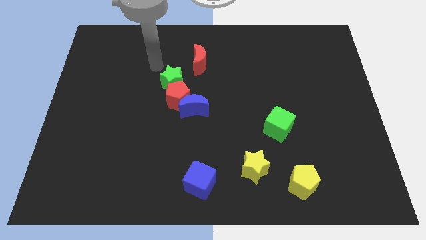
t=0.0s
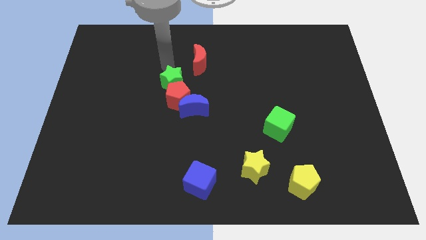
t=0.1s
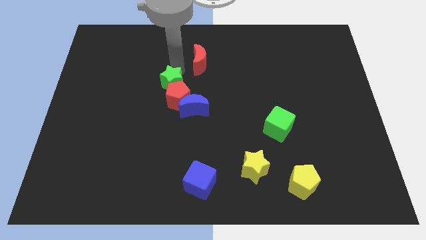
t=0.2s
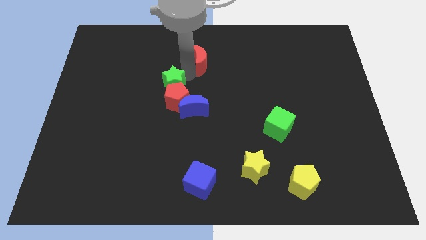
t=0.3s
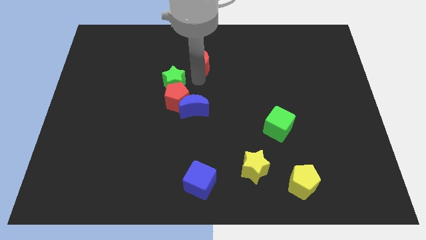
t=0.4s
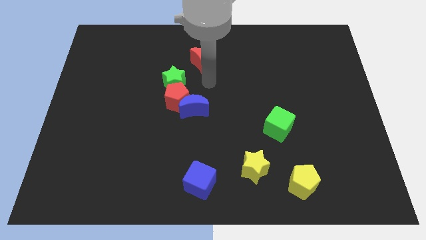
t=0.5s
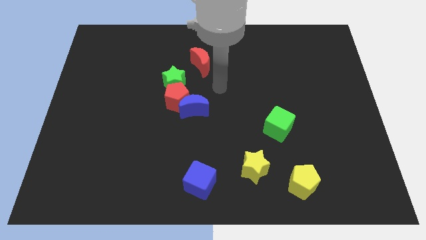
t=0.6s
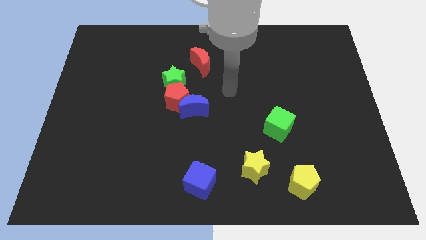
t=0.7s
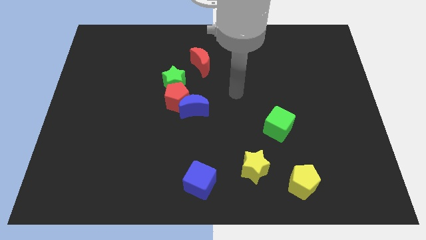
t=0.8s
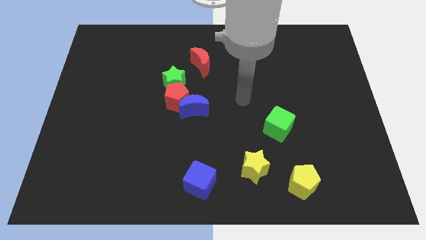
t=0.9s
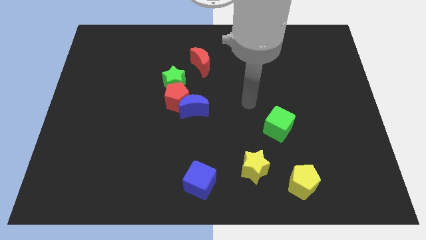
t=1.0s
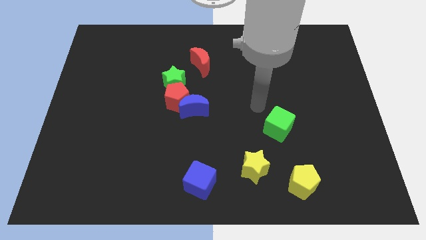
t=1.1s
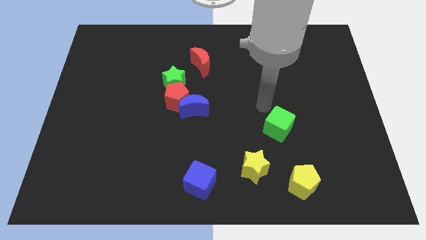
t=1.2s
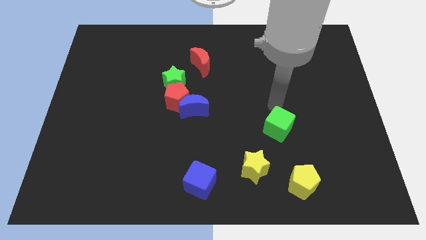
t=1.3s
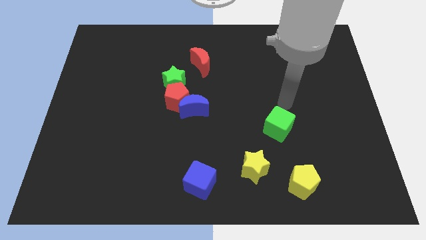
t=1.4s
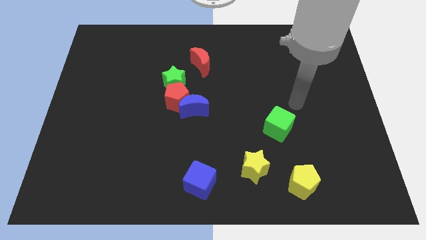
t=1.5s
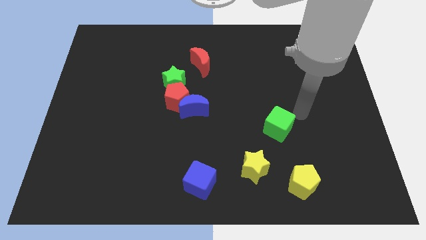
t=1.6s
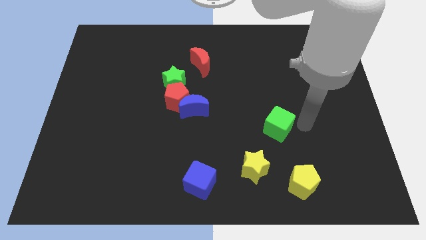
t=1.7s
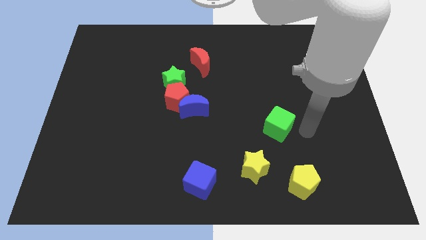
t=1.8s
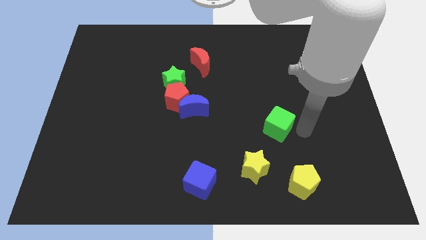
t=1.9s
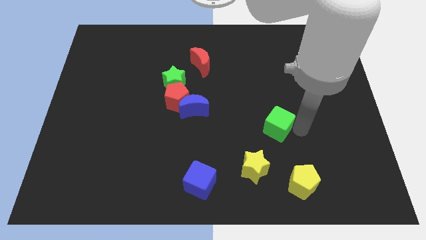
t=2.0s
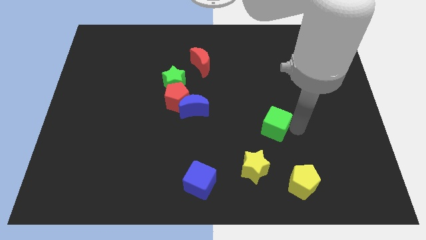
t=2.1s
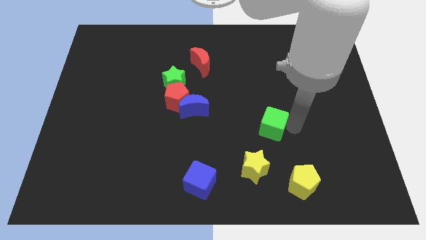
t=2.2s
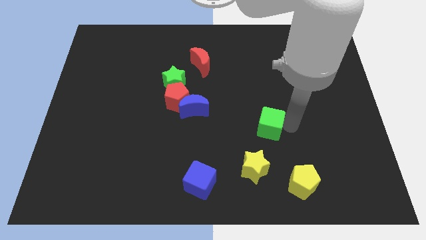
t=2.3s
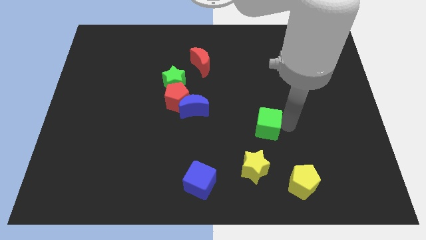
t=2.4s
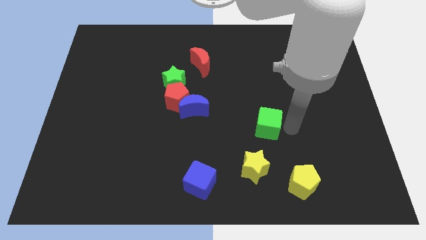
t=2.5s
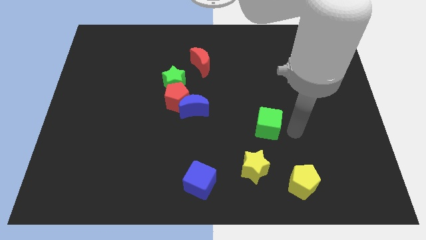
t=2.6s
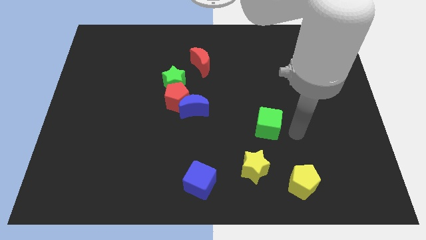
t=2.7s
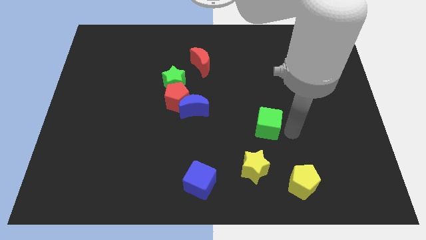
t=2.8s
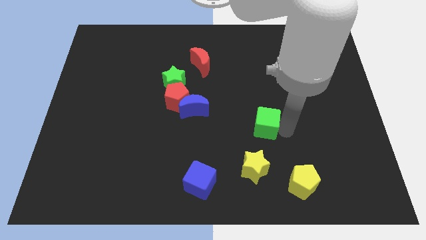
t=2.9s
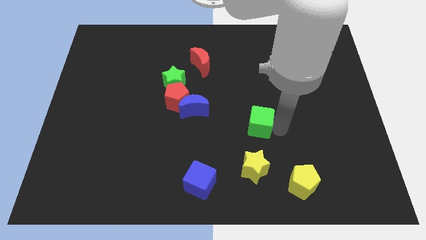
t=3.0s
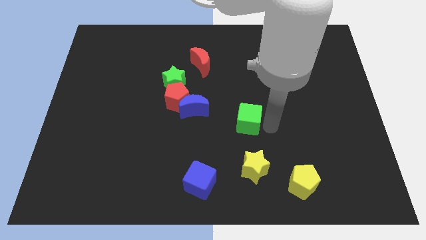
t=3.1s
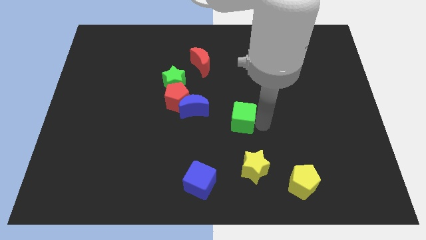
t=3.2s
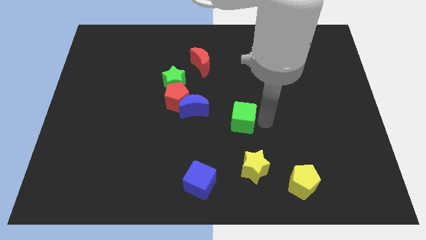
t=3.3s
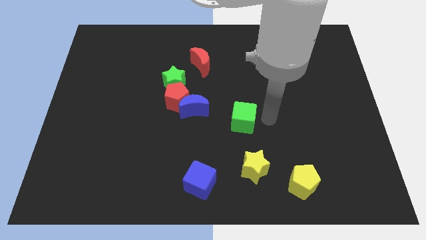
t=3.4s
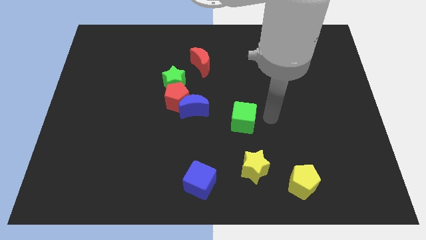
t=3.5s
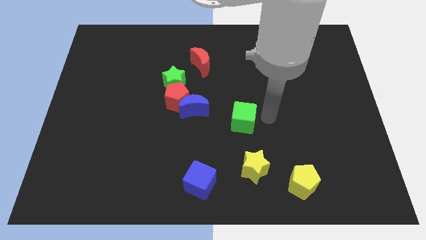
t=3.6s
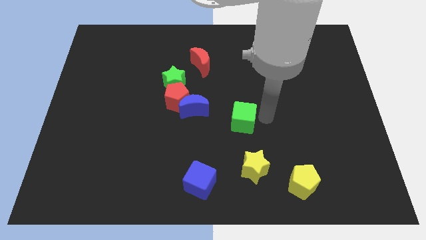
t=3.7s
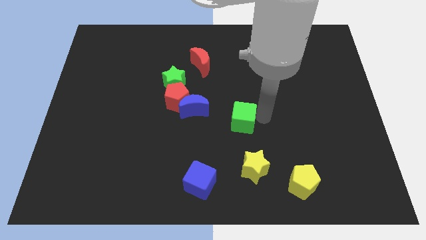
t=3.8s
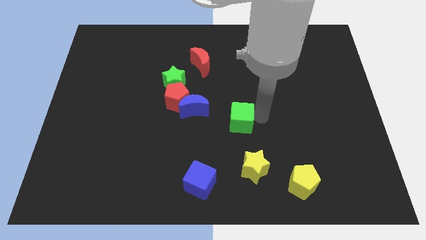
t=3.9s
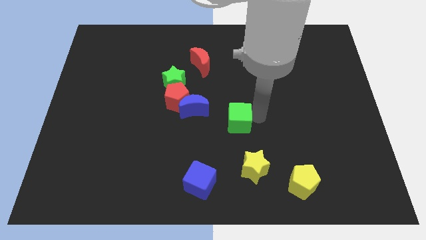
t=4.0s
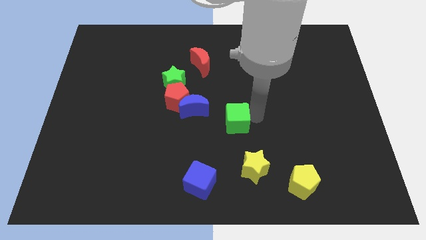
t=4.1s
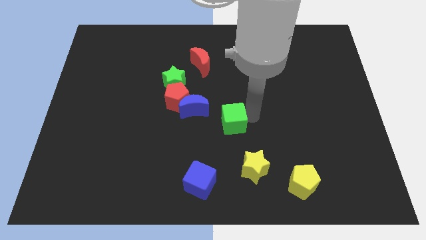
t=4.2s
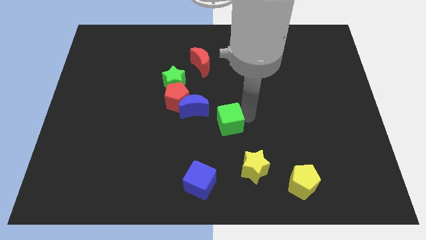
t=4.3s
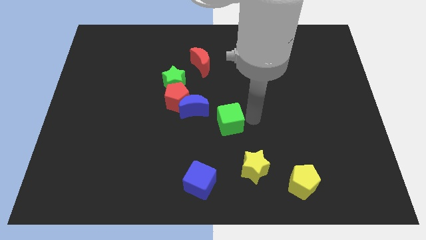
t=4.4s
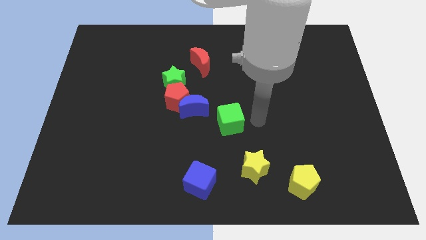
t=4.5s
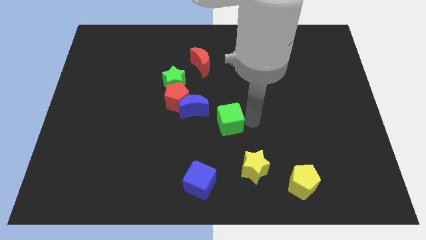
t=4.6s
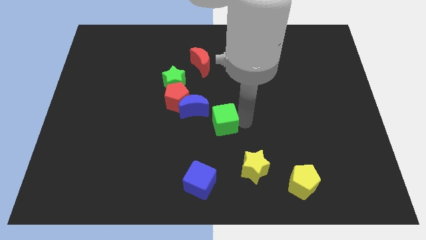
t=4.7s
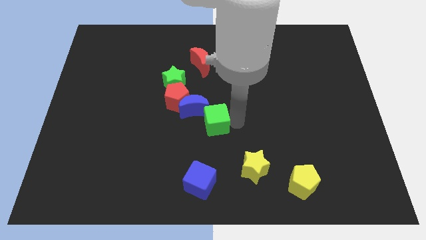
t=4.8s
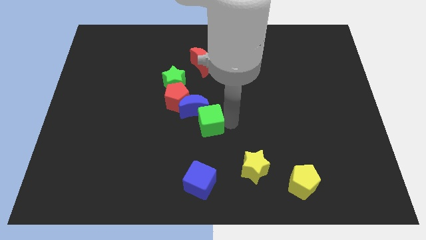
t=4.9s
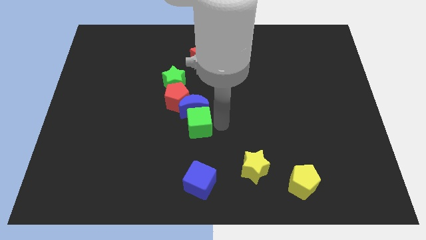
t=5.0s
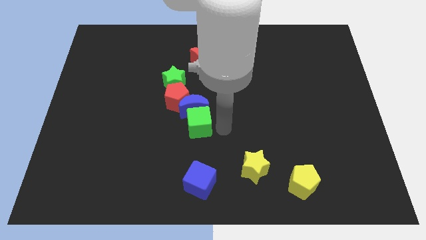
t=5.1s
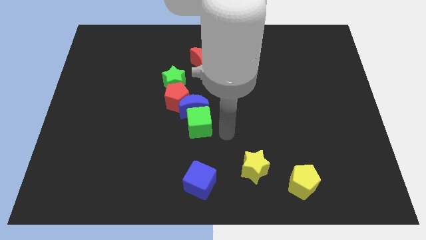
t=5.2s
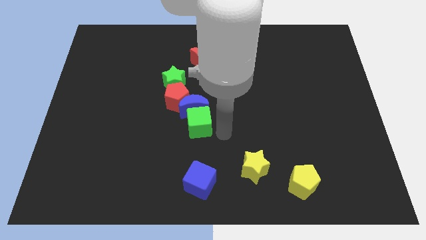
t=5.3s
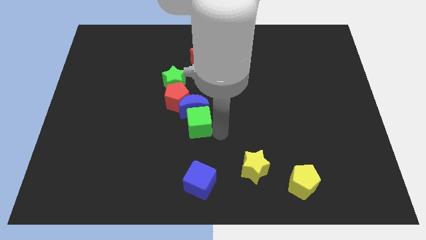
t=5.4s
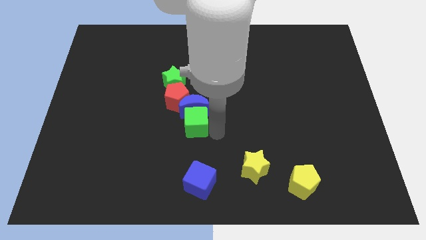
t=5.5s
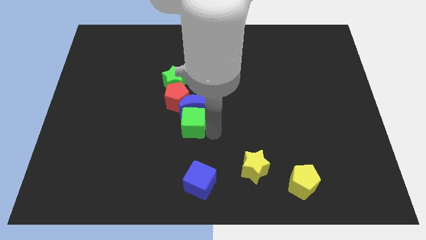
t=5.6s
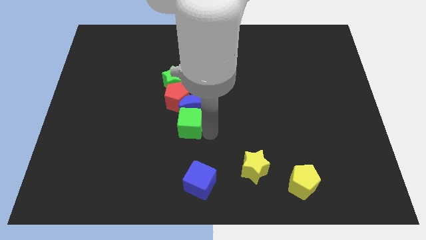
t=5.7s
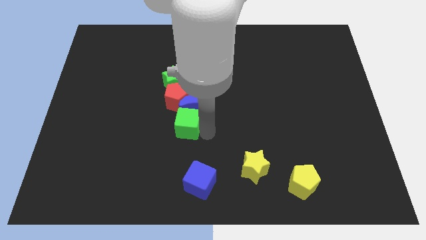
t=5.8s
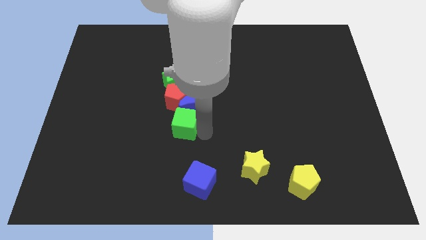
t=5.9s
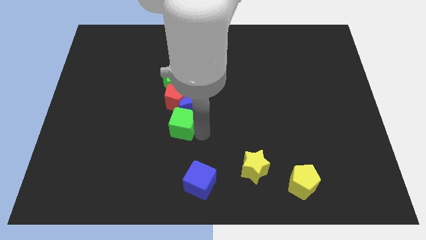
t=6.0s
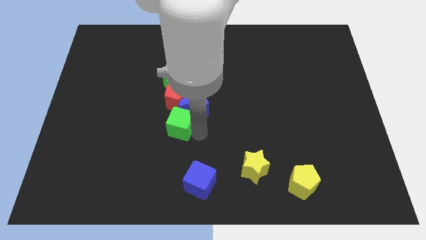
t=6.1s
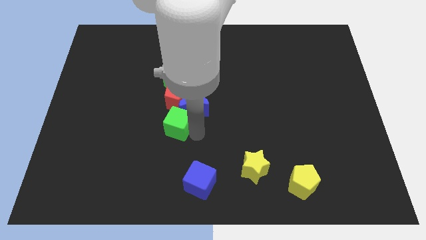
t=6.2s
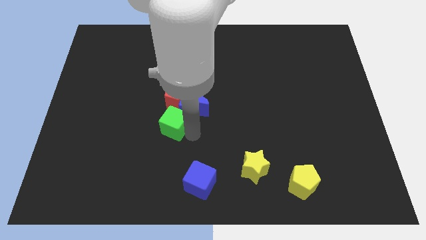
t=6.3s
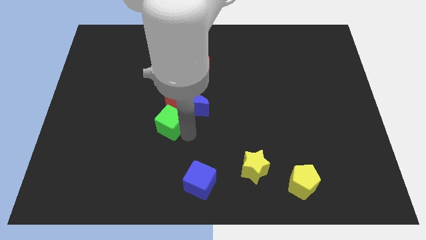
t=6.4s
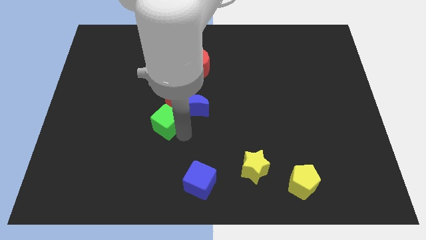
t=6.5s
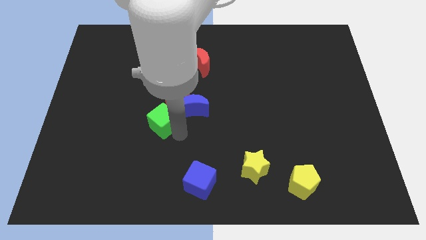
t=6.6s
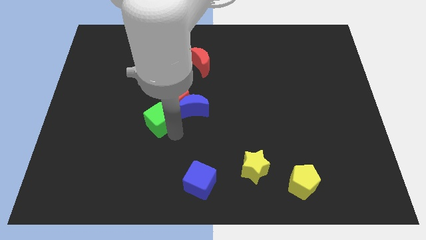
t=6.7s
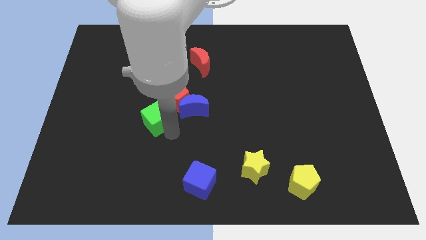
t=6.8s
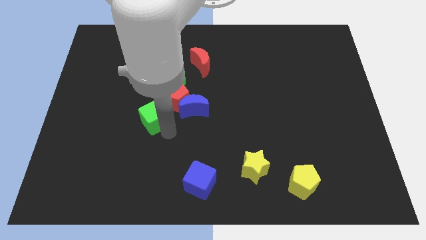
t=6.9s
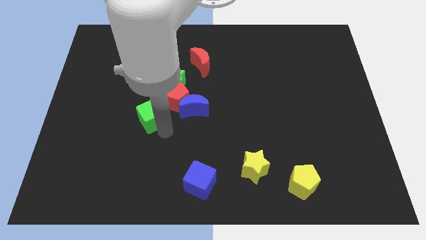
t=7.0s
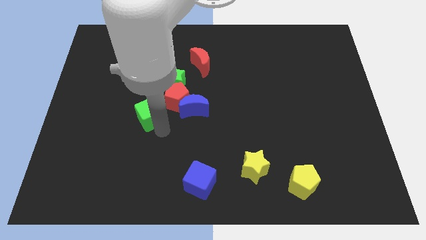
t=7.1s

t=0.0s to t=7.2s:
put the green cube to the bottom left side of the green star
